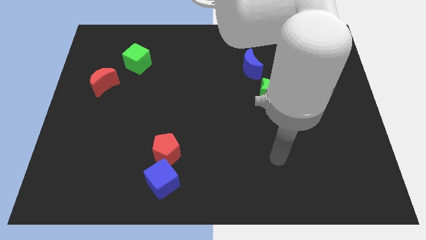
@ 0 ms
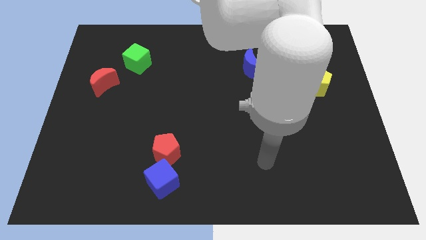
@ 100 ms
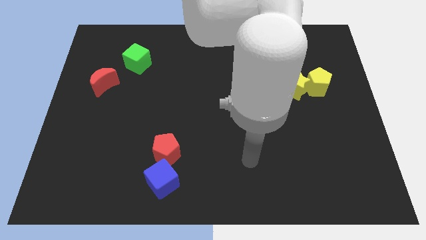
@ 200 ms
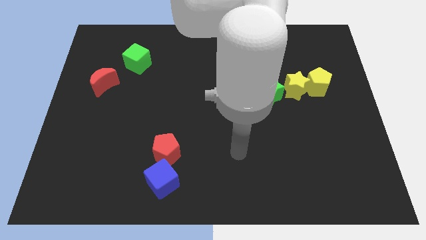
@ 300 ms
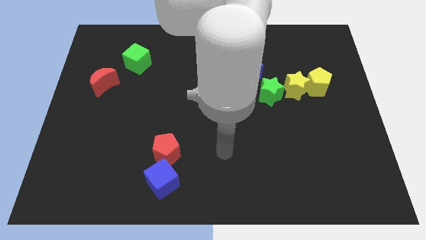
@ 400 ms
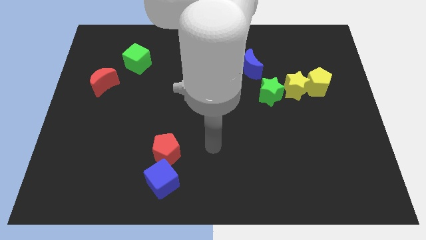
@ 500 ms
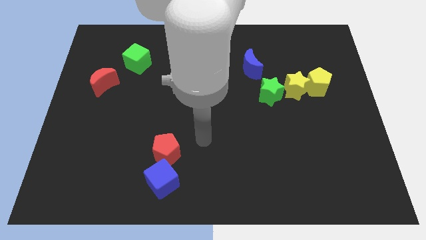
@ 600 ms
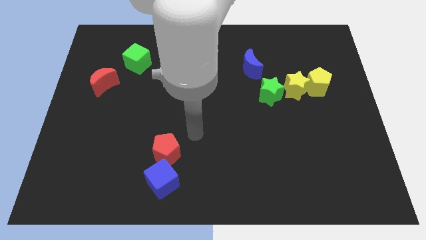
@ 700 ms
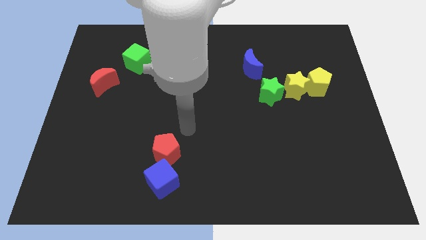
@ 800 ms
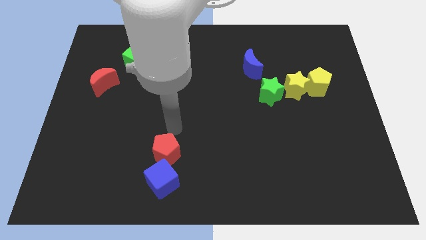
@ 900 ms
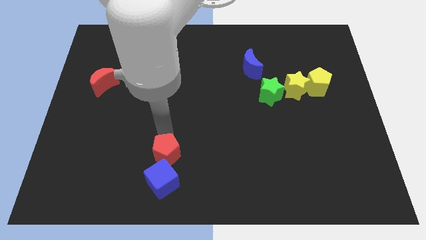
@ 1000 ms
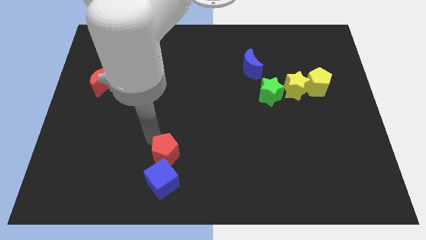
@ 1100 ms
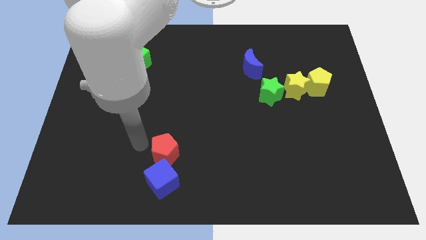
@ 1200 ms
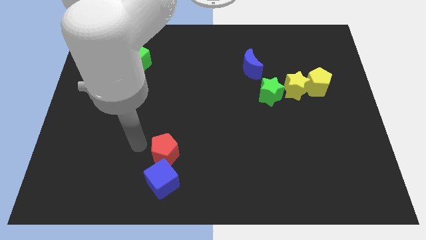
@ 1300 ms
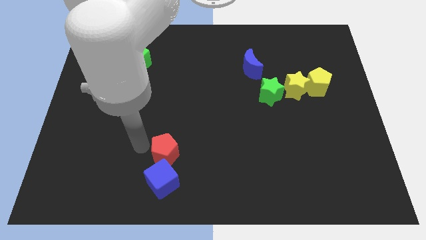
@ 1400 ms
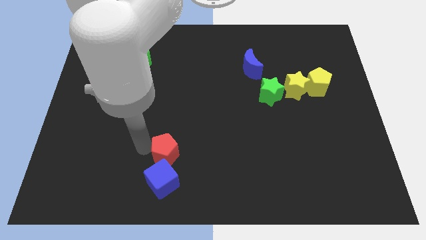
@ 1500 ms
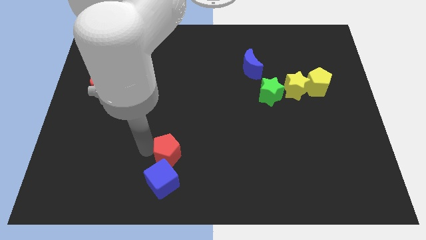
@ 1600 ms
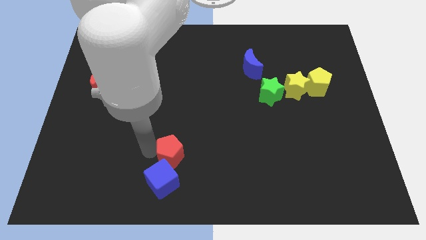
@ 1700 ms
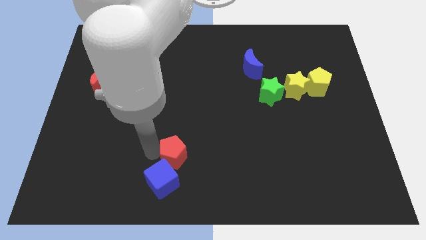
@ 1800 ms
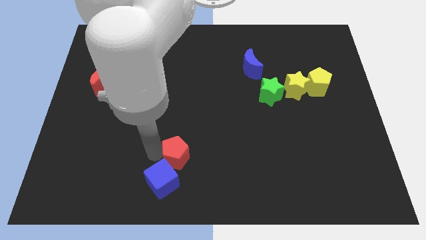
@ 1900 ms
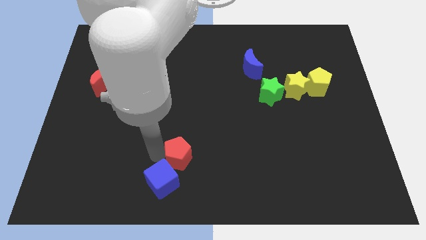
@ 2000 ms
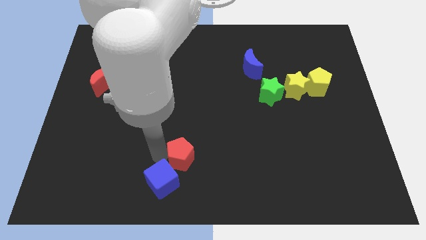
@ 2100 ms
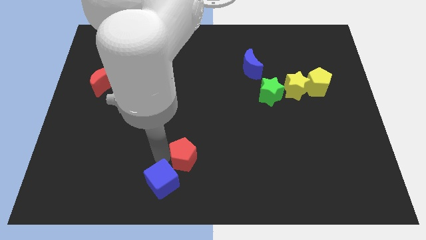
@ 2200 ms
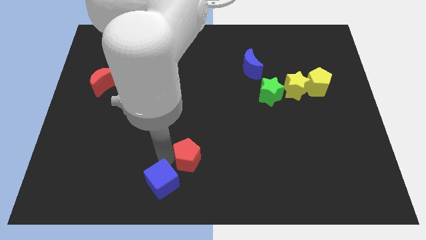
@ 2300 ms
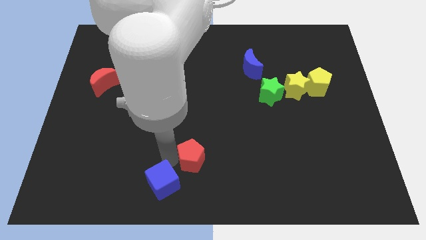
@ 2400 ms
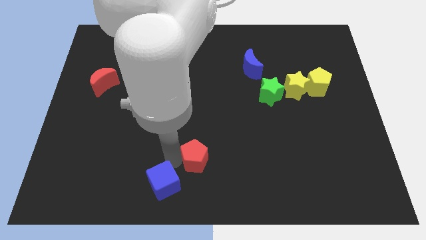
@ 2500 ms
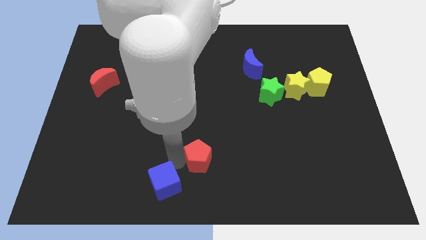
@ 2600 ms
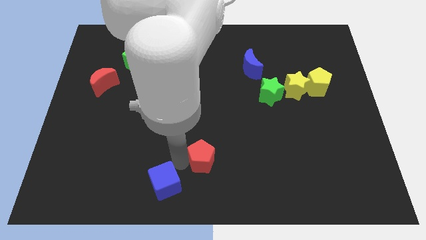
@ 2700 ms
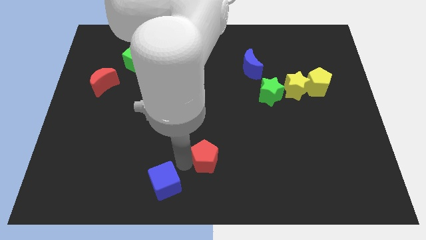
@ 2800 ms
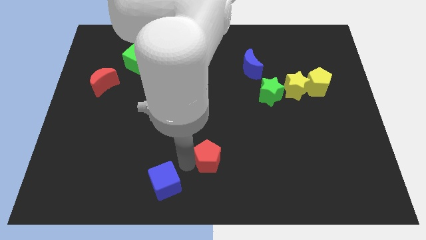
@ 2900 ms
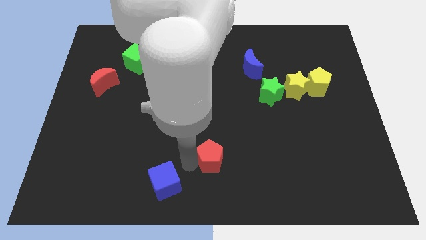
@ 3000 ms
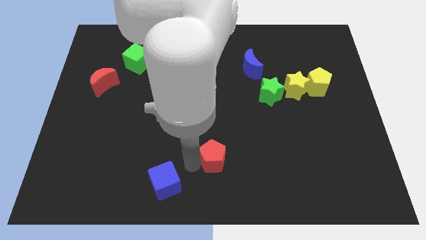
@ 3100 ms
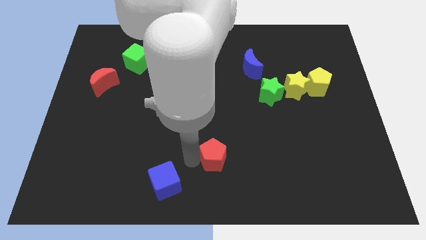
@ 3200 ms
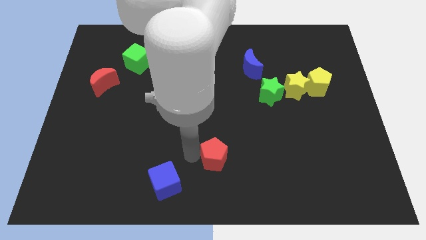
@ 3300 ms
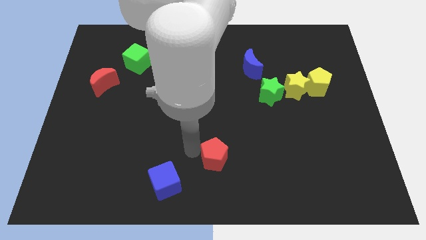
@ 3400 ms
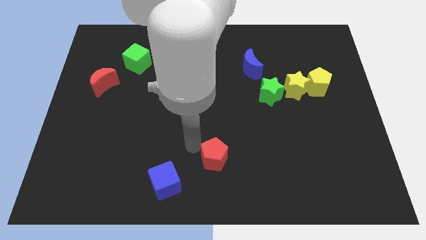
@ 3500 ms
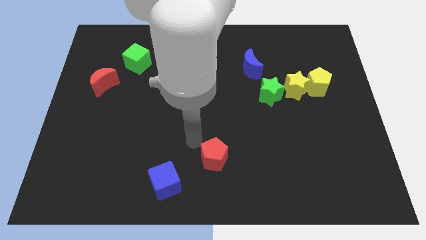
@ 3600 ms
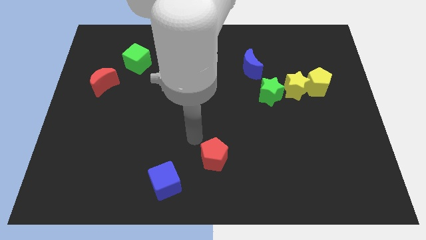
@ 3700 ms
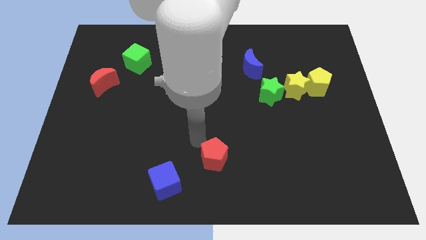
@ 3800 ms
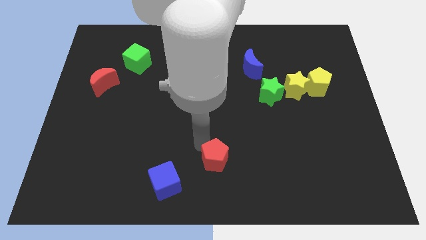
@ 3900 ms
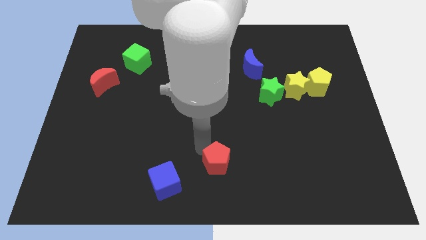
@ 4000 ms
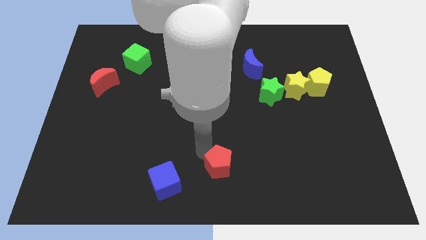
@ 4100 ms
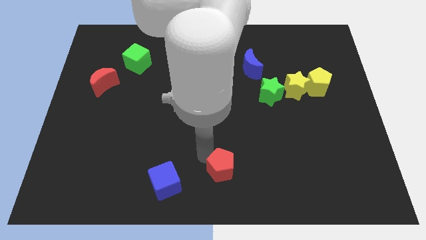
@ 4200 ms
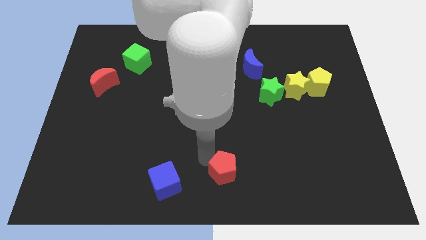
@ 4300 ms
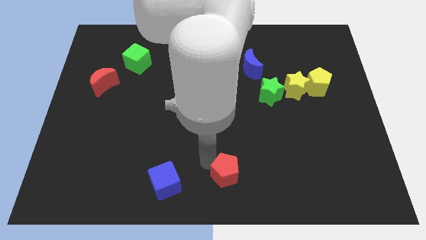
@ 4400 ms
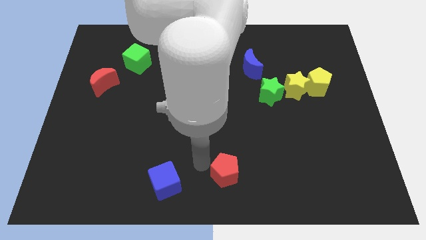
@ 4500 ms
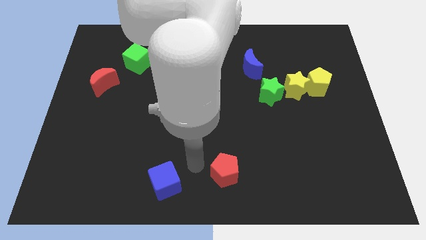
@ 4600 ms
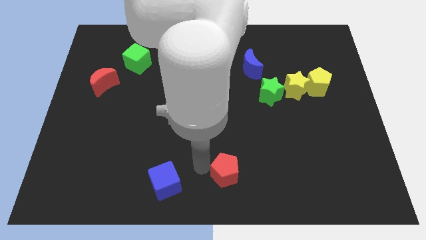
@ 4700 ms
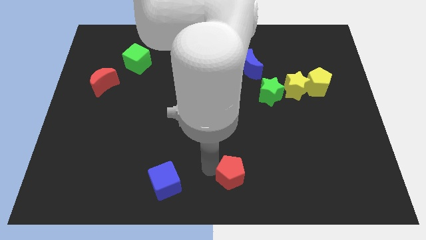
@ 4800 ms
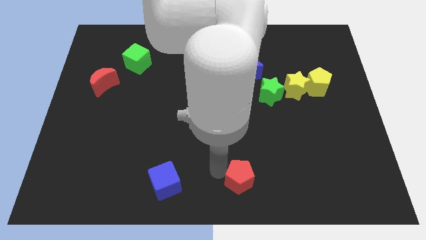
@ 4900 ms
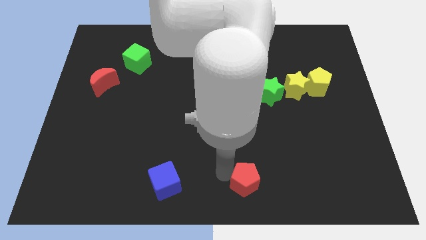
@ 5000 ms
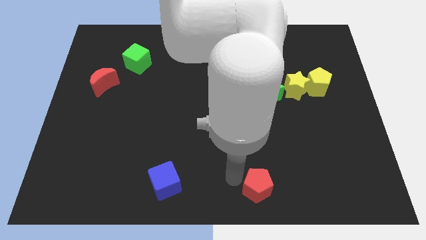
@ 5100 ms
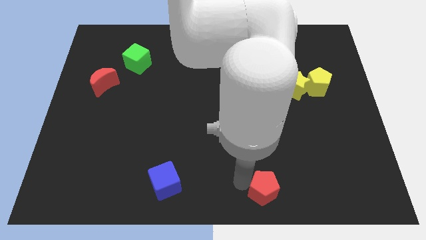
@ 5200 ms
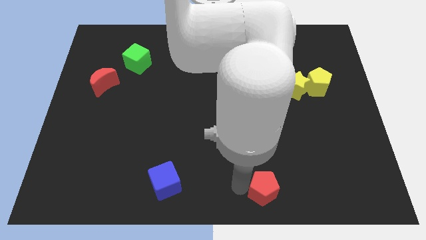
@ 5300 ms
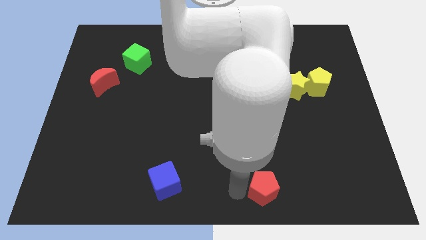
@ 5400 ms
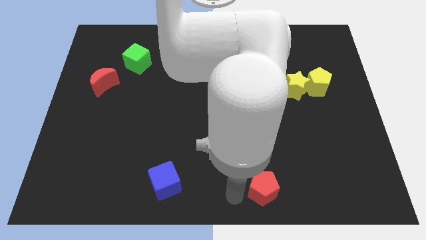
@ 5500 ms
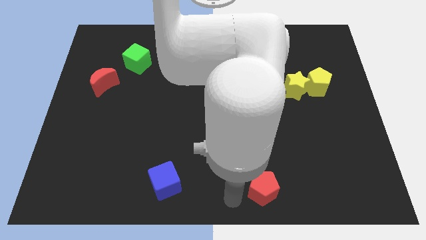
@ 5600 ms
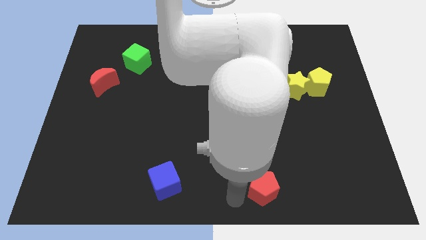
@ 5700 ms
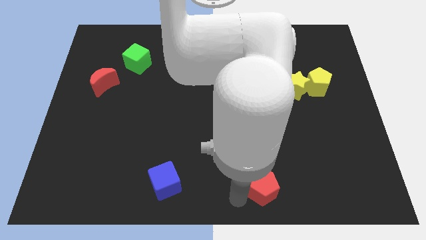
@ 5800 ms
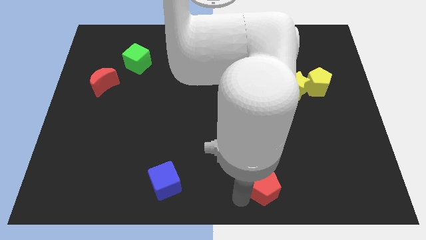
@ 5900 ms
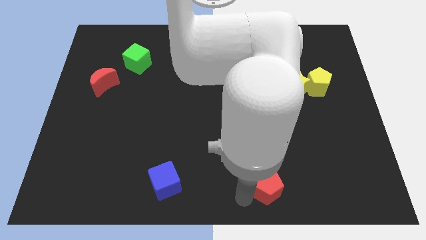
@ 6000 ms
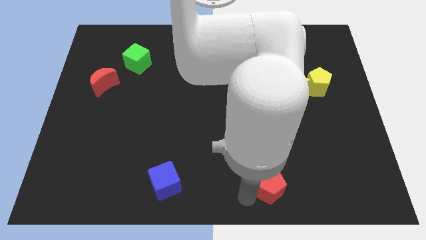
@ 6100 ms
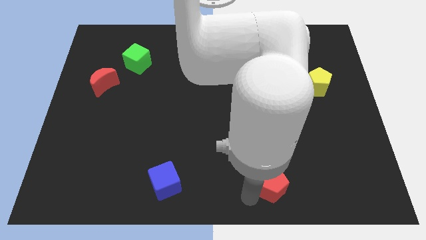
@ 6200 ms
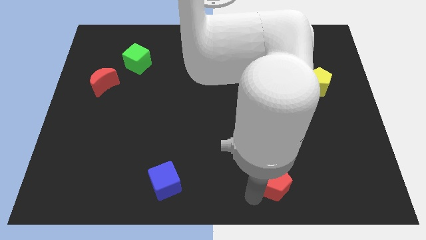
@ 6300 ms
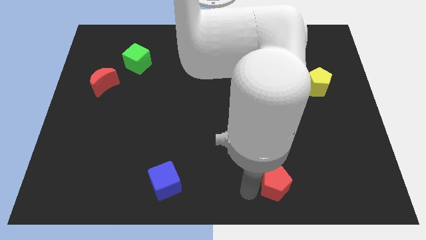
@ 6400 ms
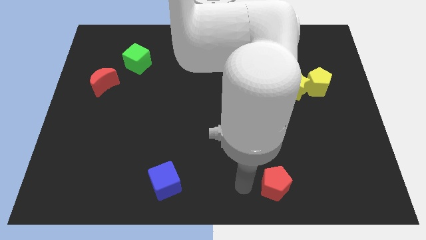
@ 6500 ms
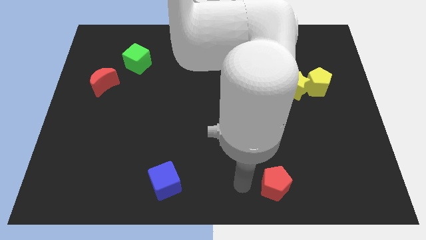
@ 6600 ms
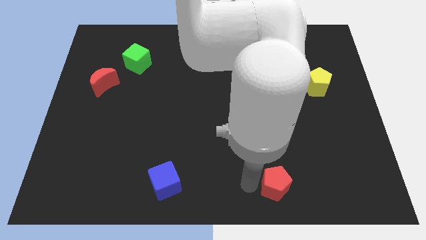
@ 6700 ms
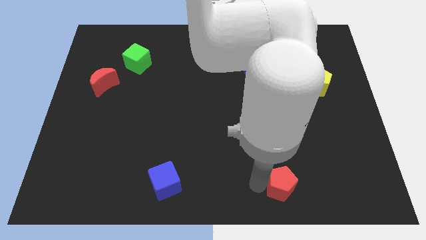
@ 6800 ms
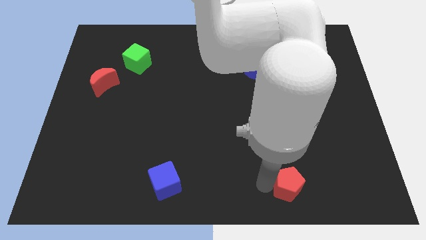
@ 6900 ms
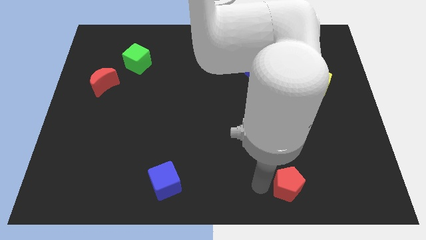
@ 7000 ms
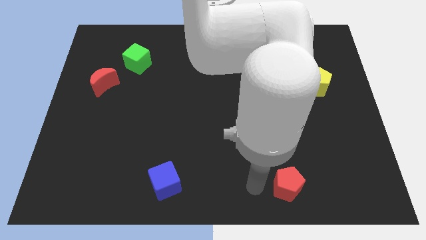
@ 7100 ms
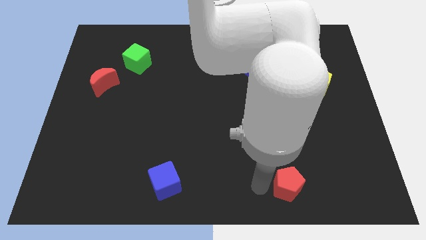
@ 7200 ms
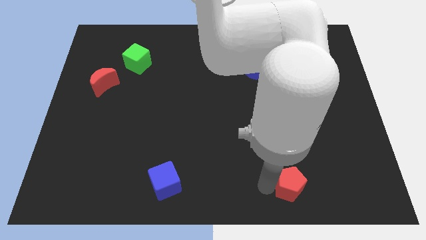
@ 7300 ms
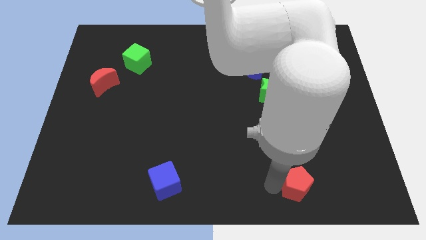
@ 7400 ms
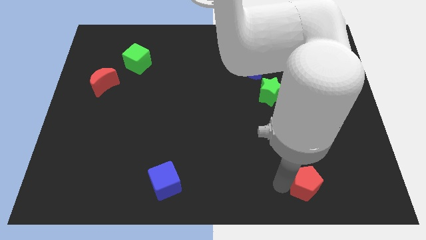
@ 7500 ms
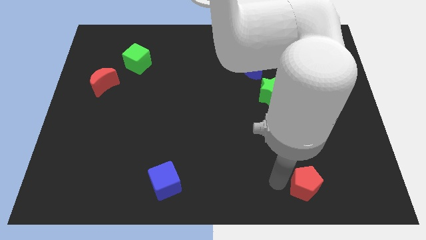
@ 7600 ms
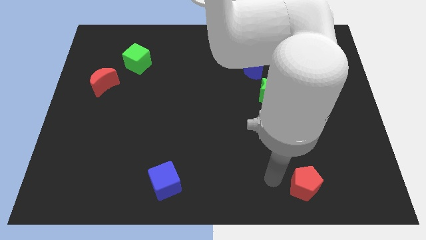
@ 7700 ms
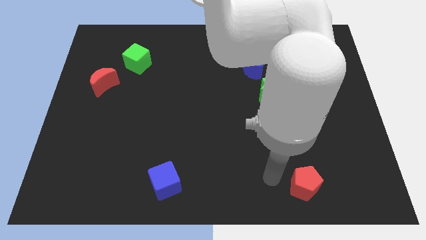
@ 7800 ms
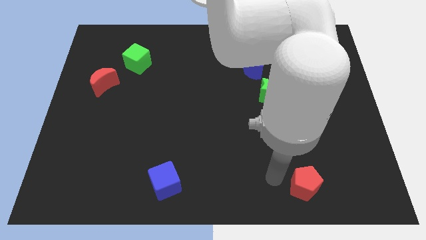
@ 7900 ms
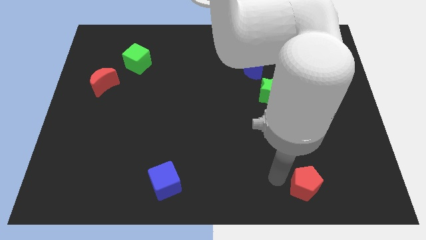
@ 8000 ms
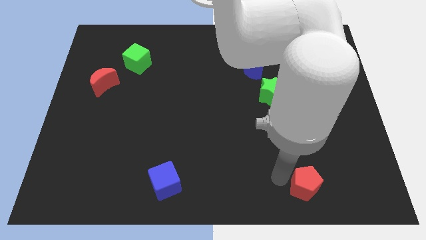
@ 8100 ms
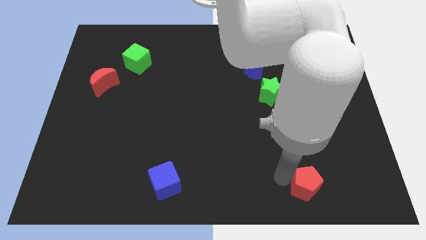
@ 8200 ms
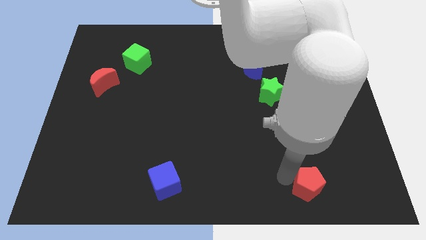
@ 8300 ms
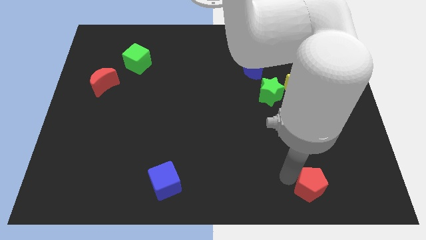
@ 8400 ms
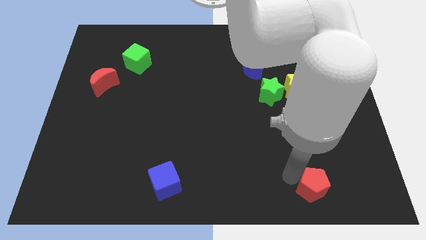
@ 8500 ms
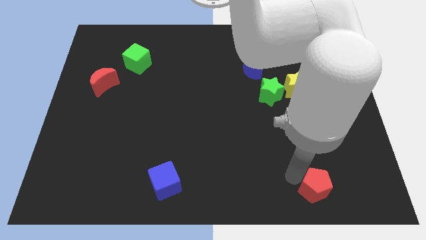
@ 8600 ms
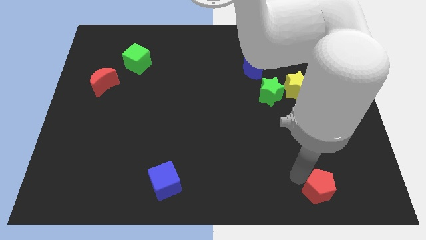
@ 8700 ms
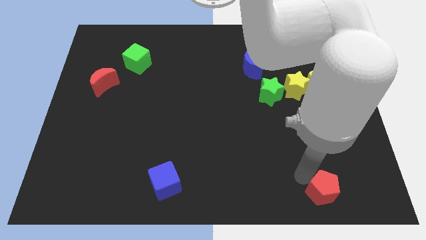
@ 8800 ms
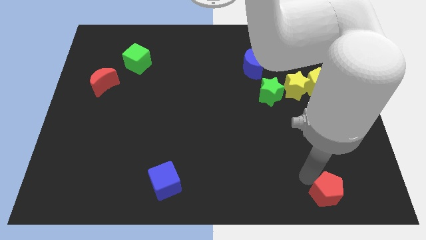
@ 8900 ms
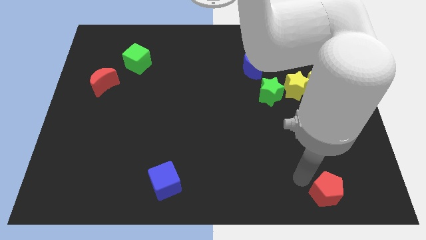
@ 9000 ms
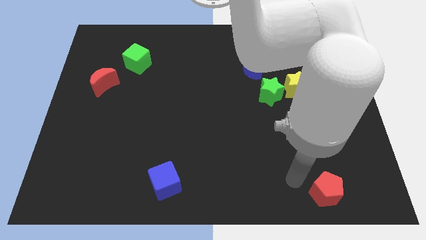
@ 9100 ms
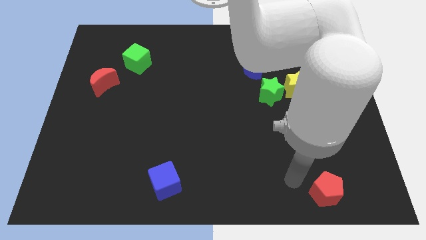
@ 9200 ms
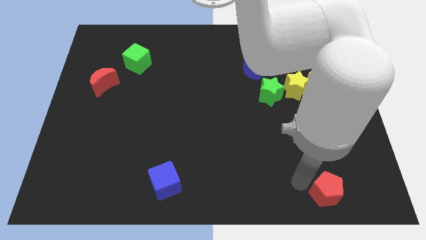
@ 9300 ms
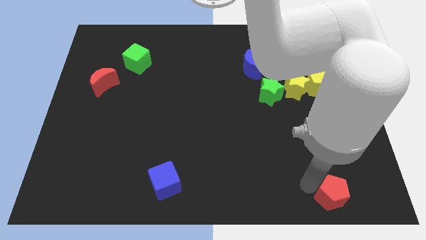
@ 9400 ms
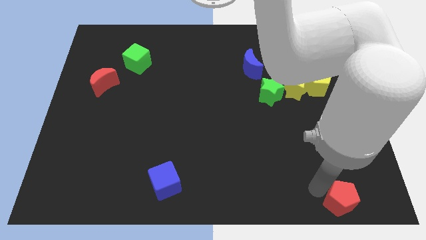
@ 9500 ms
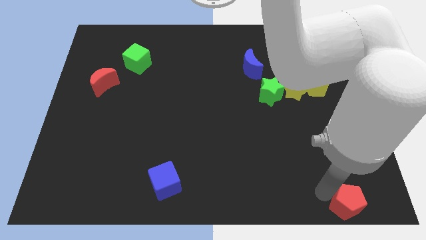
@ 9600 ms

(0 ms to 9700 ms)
push the red pentagon to the bottom right corner
